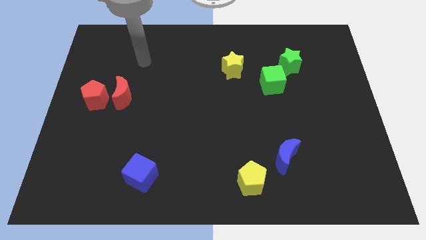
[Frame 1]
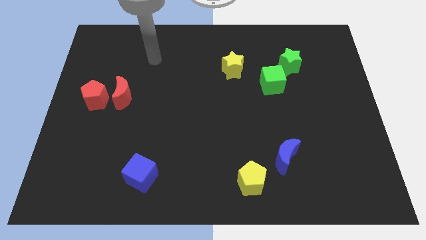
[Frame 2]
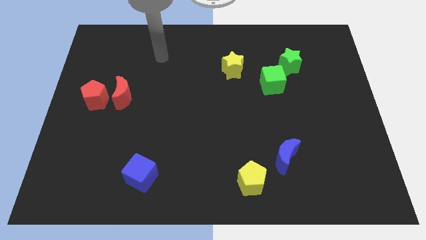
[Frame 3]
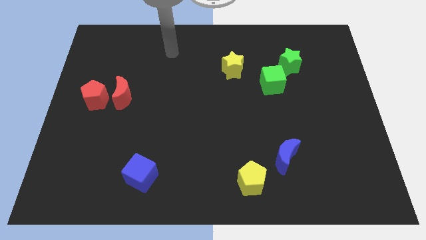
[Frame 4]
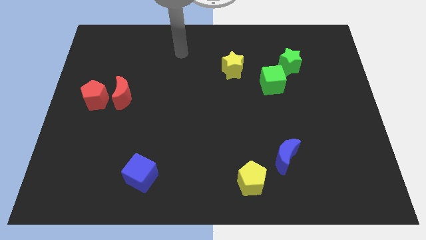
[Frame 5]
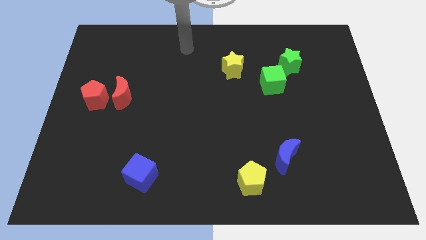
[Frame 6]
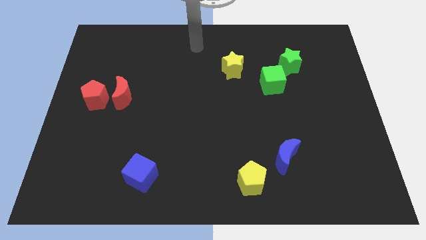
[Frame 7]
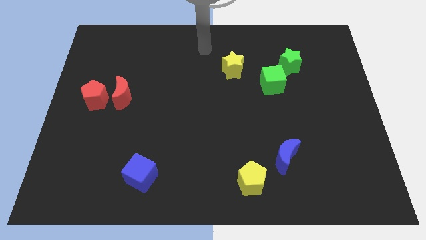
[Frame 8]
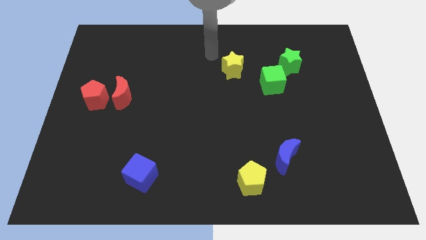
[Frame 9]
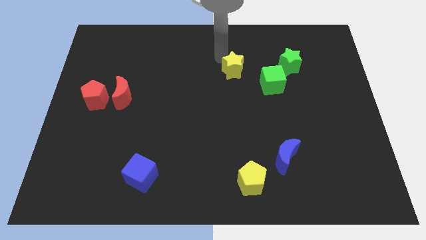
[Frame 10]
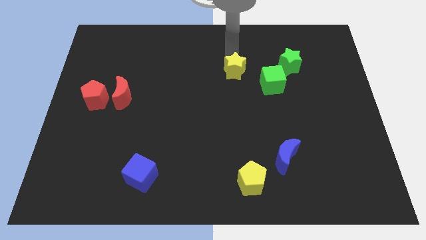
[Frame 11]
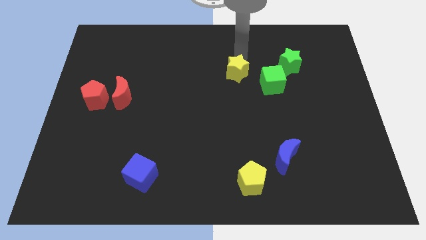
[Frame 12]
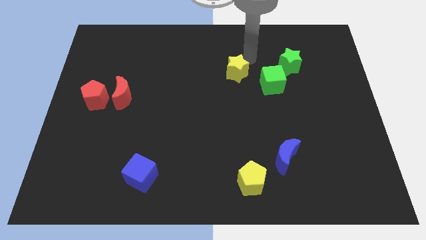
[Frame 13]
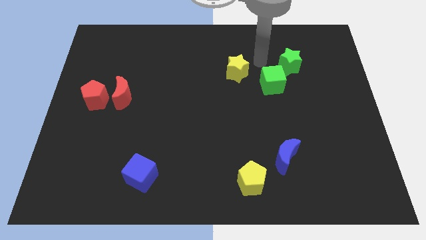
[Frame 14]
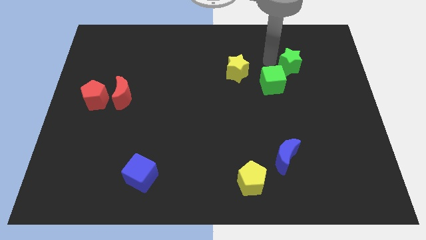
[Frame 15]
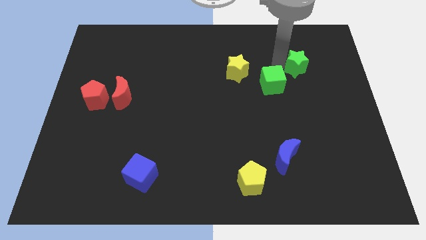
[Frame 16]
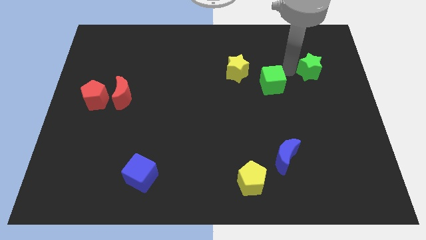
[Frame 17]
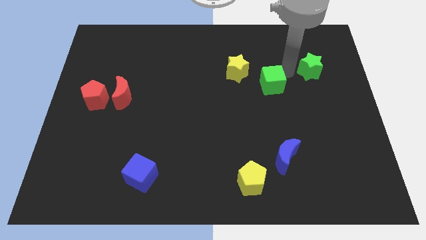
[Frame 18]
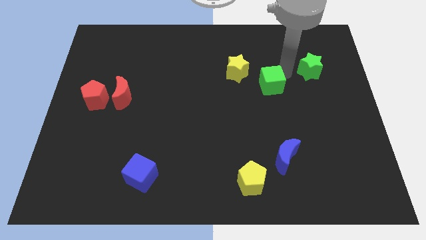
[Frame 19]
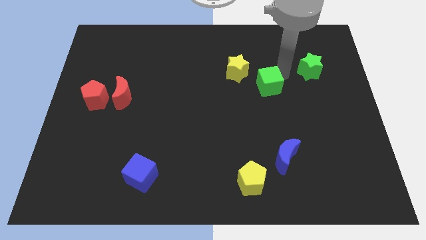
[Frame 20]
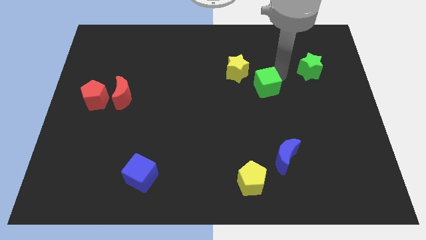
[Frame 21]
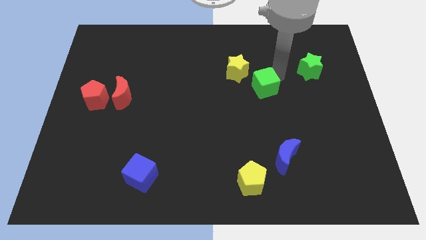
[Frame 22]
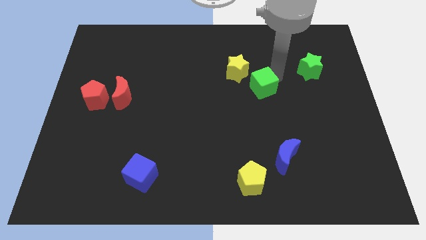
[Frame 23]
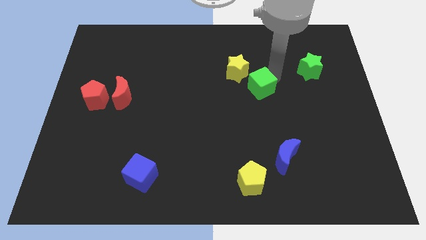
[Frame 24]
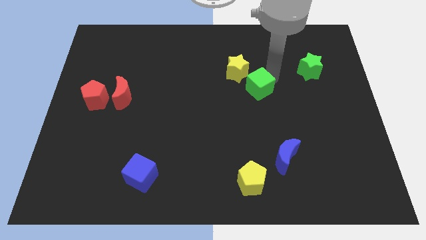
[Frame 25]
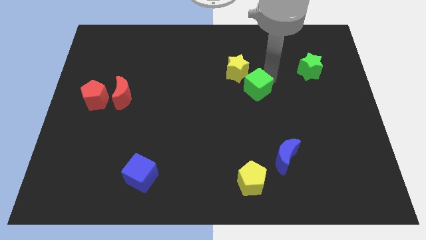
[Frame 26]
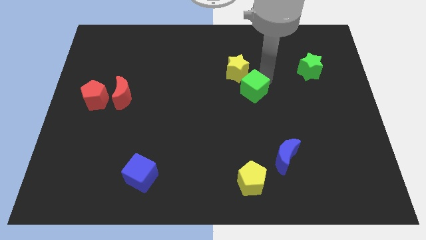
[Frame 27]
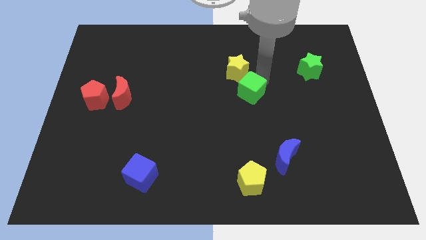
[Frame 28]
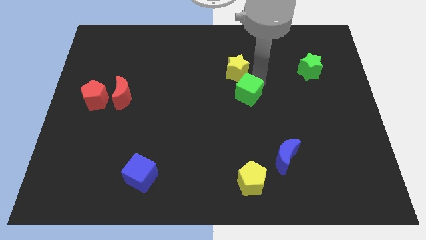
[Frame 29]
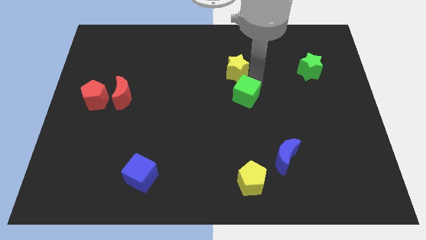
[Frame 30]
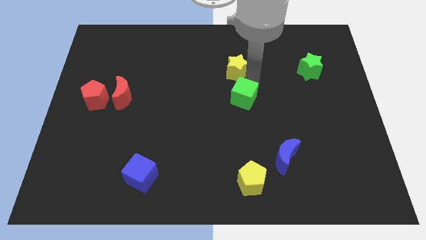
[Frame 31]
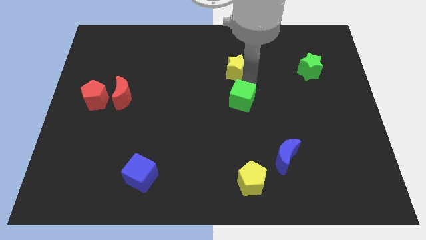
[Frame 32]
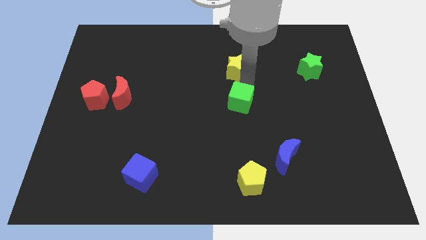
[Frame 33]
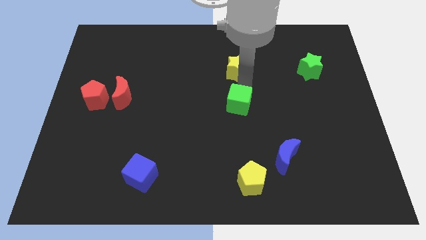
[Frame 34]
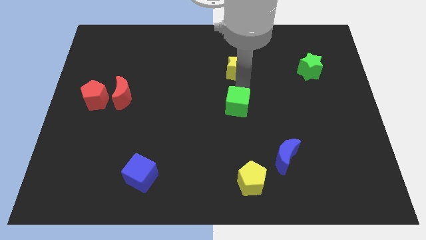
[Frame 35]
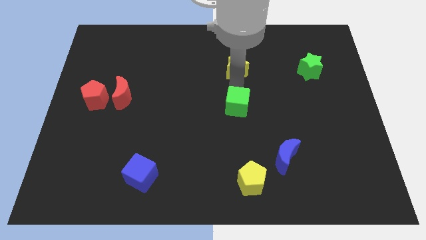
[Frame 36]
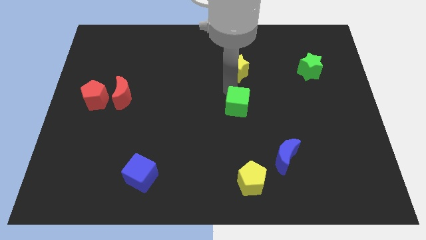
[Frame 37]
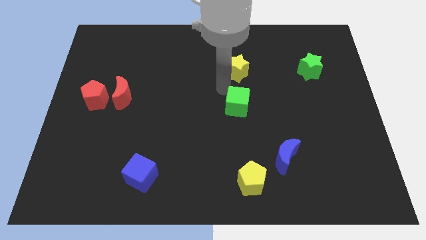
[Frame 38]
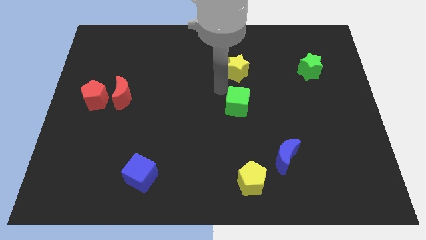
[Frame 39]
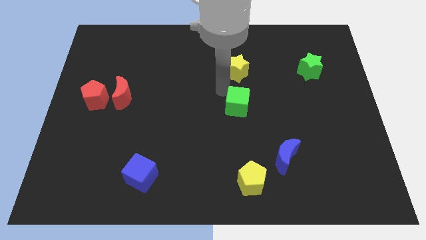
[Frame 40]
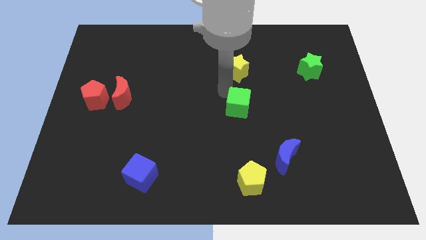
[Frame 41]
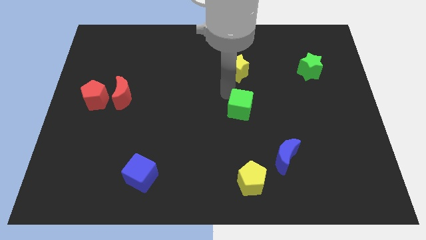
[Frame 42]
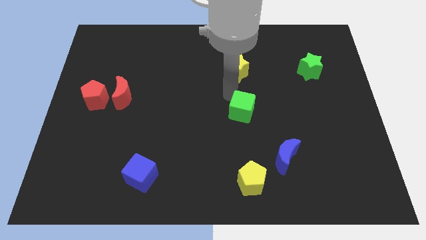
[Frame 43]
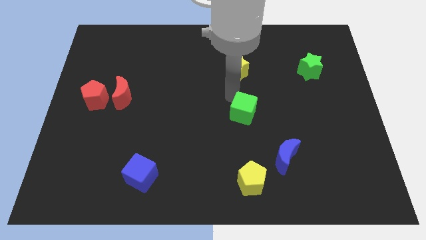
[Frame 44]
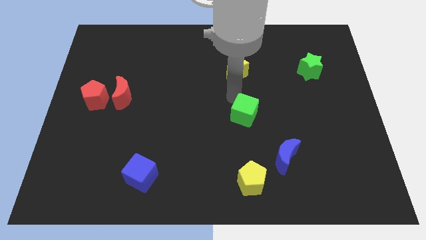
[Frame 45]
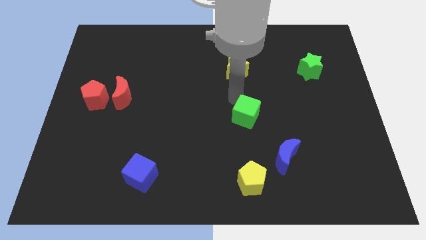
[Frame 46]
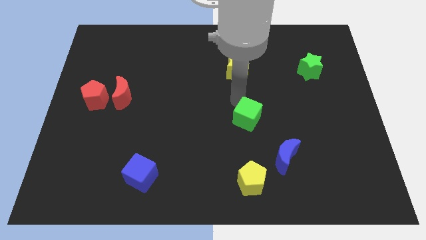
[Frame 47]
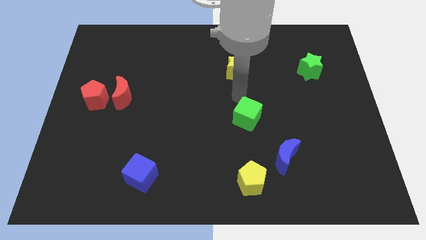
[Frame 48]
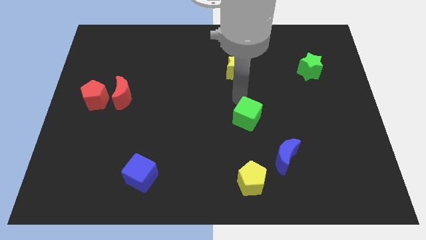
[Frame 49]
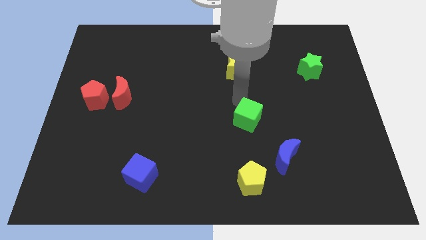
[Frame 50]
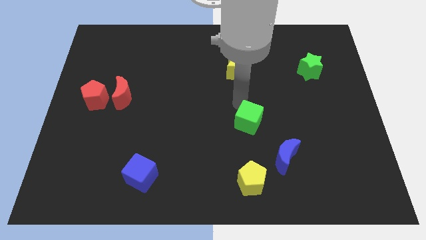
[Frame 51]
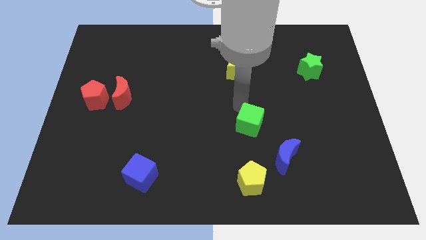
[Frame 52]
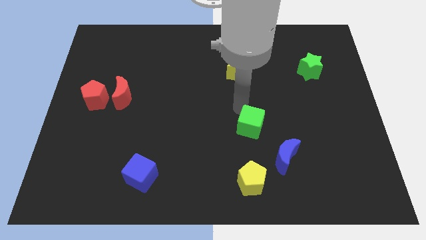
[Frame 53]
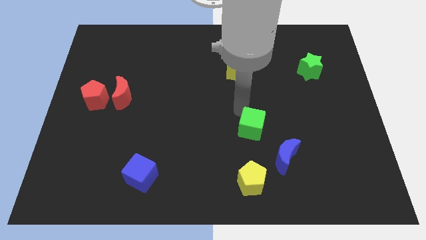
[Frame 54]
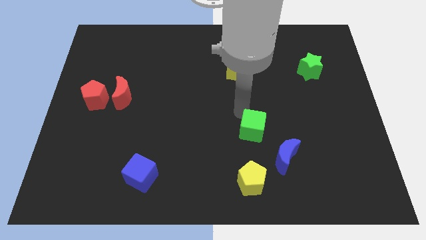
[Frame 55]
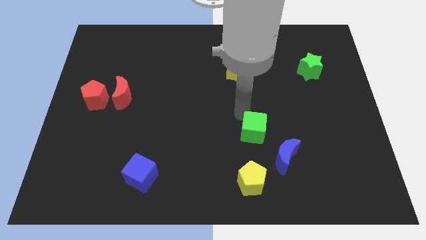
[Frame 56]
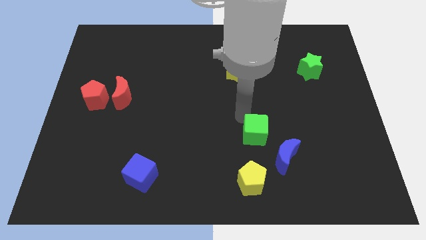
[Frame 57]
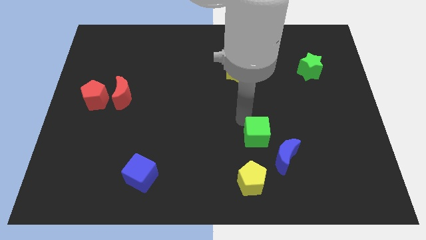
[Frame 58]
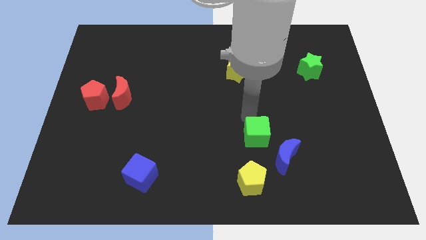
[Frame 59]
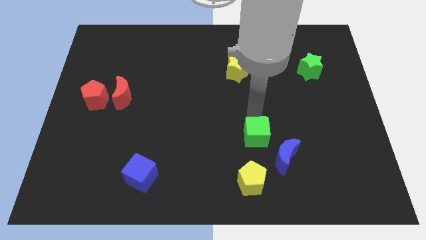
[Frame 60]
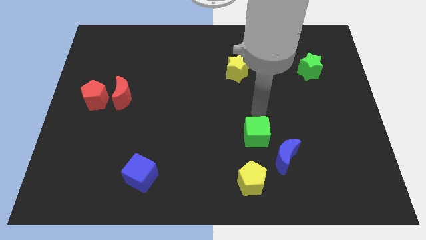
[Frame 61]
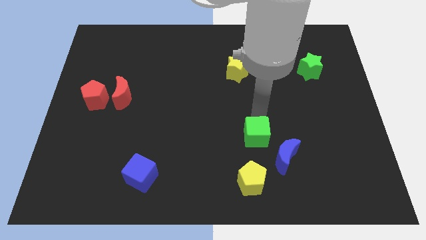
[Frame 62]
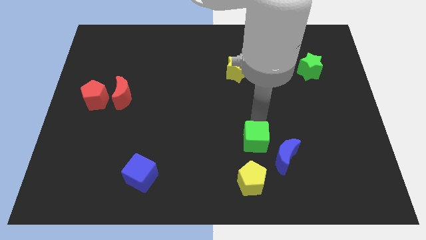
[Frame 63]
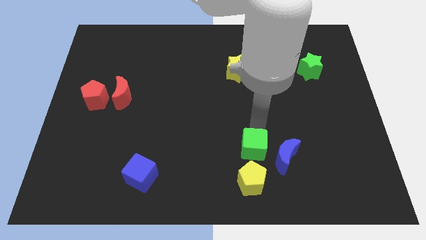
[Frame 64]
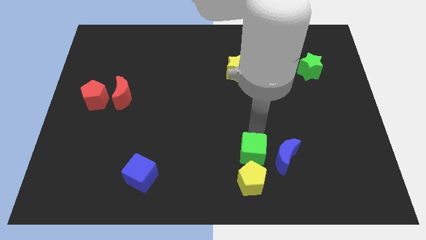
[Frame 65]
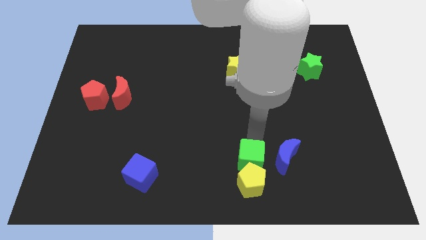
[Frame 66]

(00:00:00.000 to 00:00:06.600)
push the green cube next to the yellow pentagon
